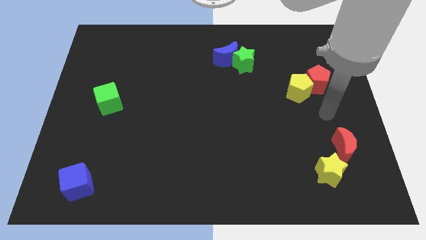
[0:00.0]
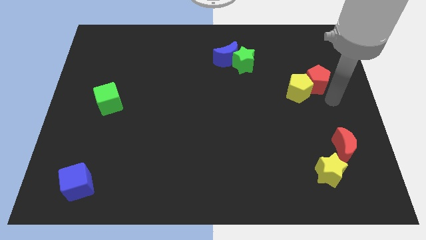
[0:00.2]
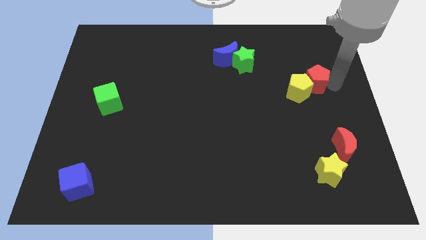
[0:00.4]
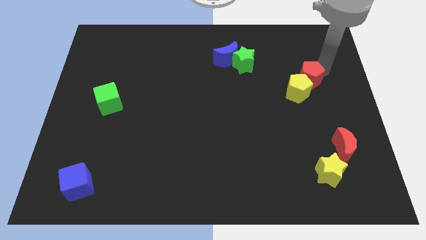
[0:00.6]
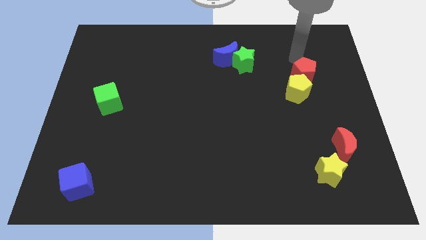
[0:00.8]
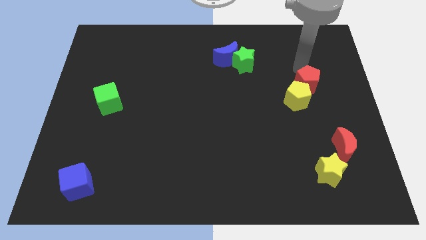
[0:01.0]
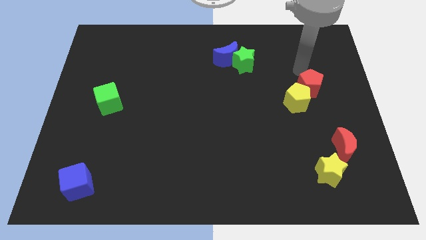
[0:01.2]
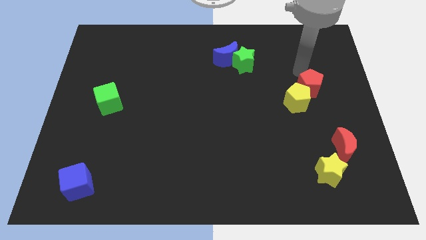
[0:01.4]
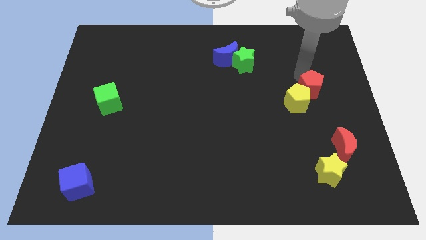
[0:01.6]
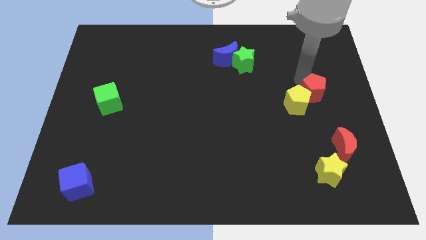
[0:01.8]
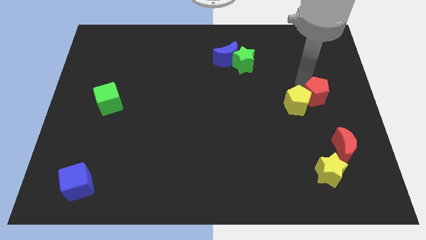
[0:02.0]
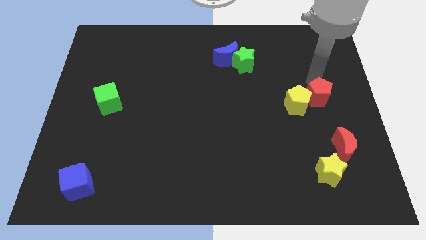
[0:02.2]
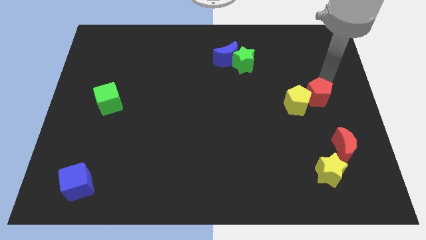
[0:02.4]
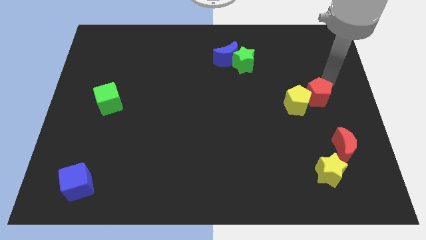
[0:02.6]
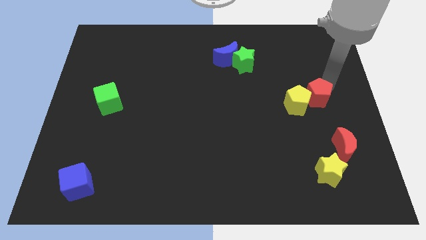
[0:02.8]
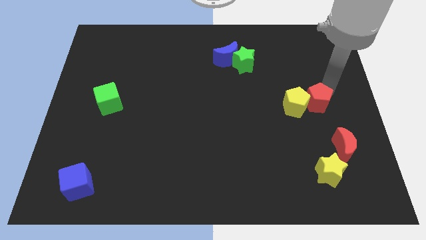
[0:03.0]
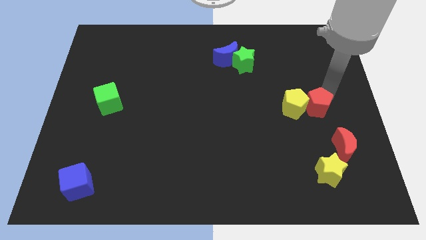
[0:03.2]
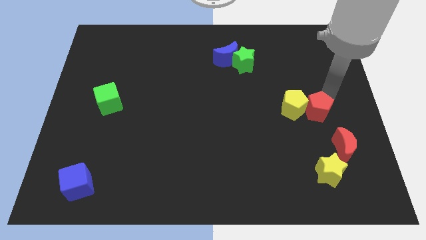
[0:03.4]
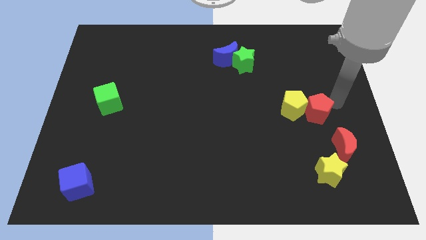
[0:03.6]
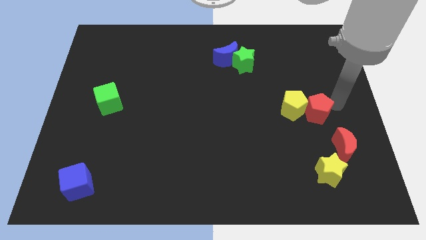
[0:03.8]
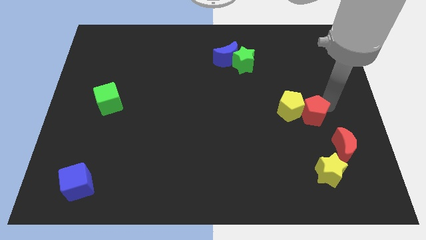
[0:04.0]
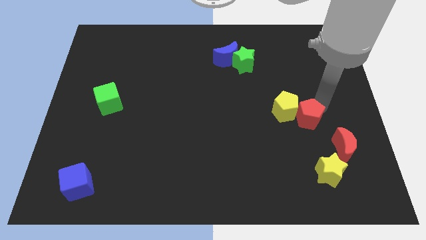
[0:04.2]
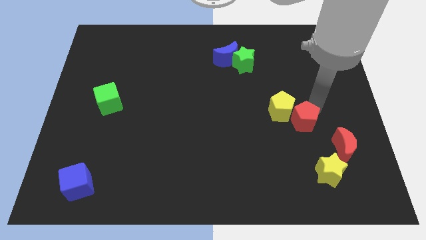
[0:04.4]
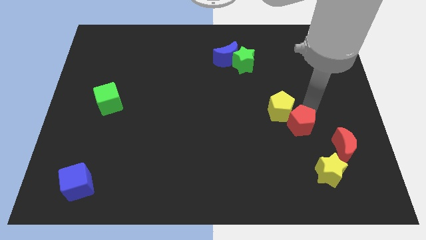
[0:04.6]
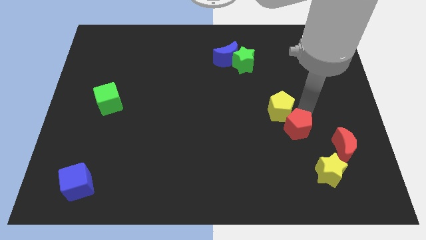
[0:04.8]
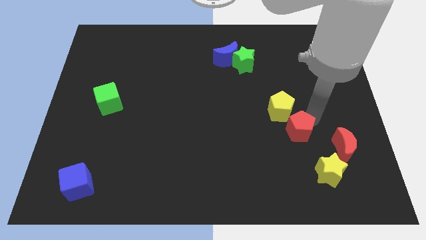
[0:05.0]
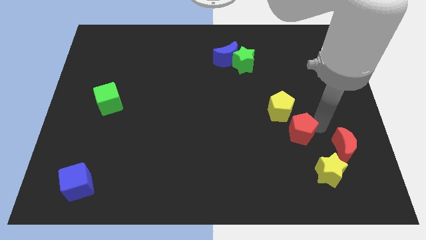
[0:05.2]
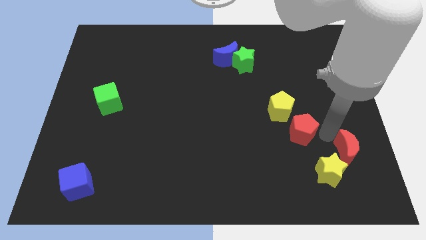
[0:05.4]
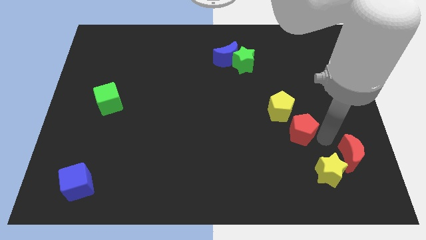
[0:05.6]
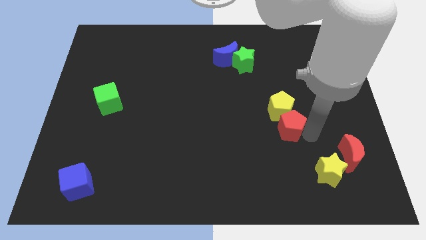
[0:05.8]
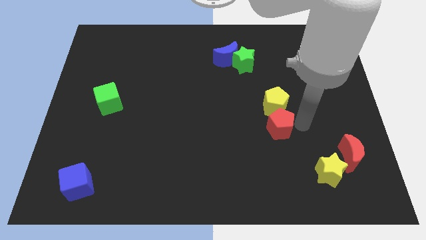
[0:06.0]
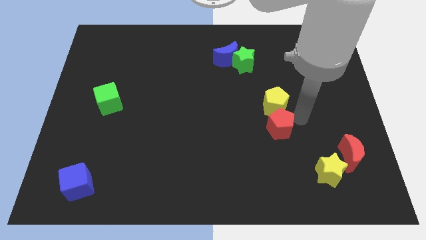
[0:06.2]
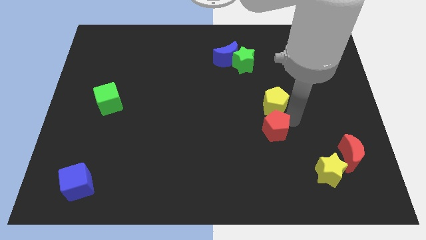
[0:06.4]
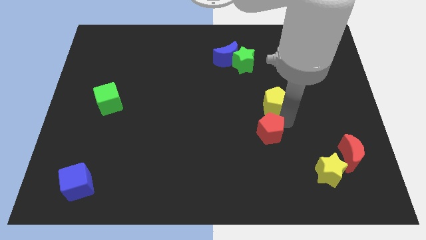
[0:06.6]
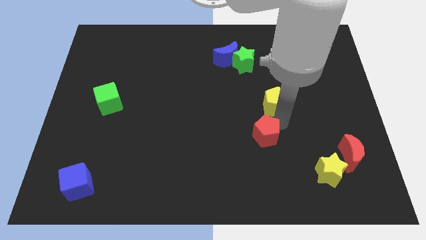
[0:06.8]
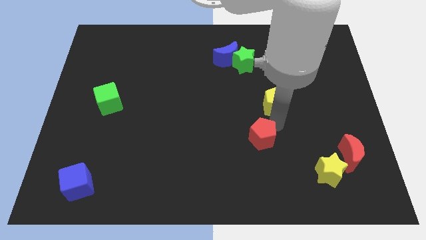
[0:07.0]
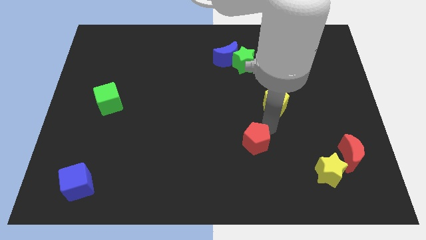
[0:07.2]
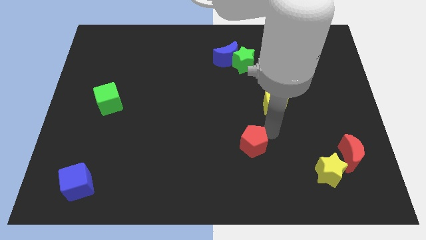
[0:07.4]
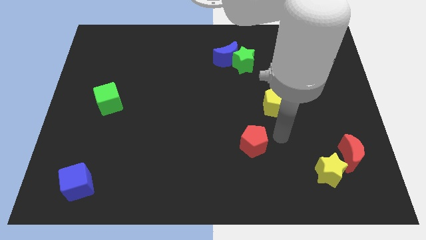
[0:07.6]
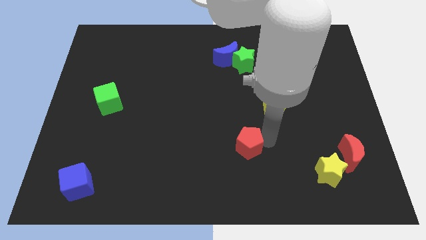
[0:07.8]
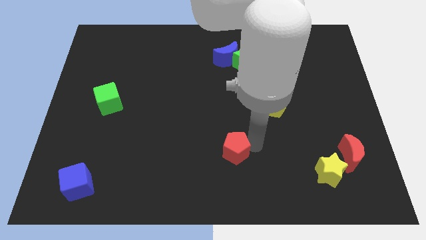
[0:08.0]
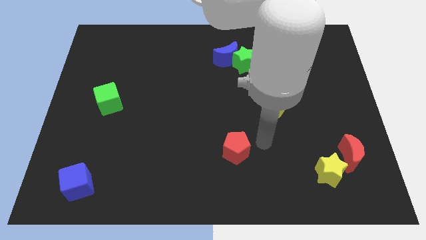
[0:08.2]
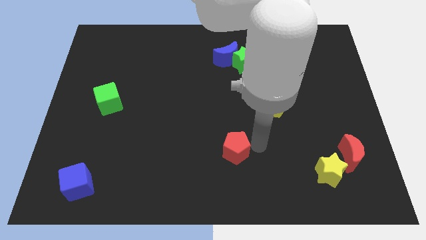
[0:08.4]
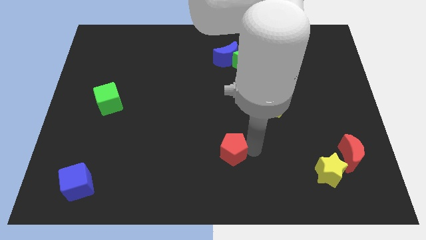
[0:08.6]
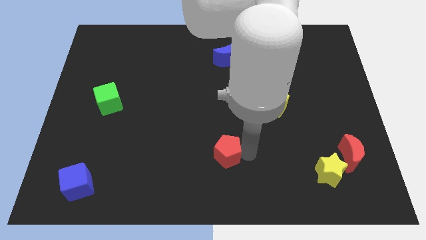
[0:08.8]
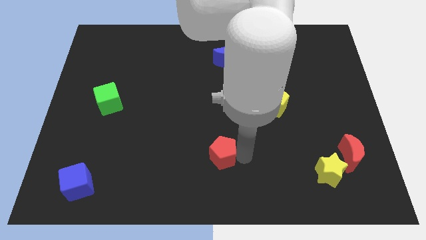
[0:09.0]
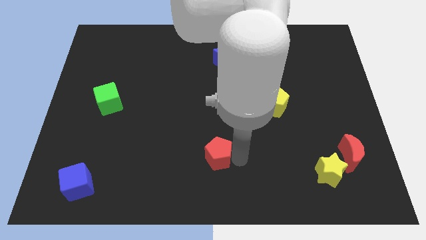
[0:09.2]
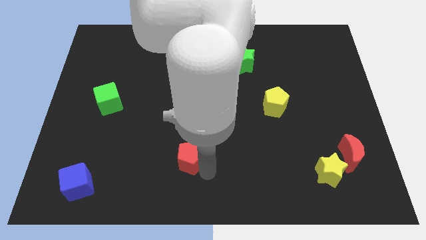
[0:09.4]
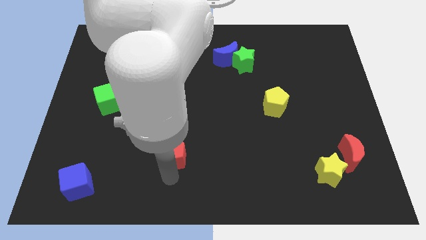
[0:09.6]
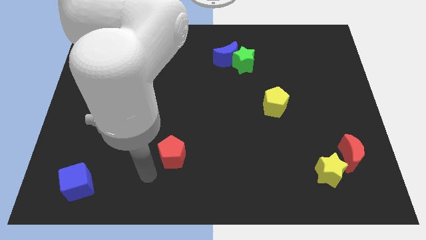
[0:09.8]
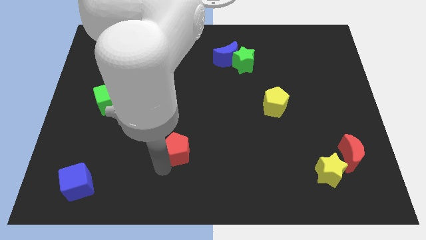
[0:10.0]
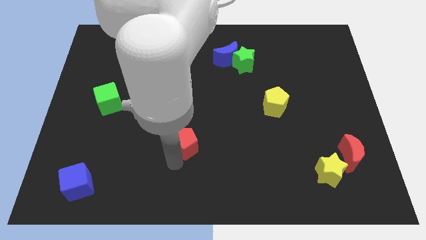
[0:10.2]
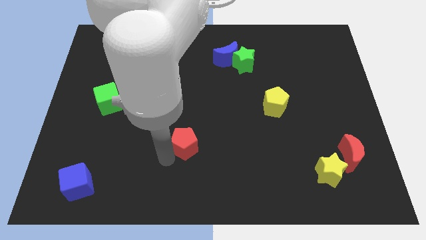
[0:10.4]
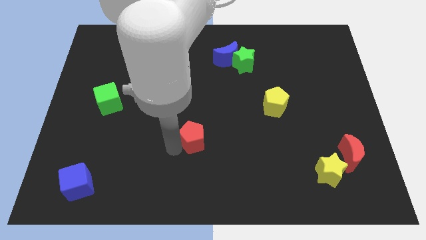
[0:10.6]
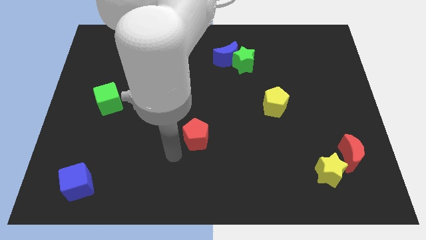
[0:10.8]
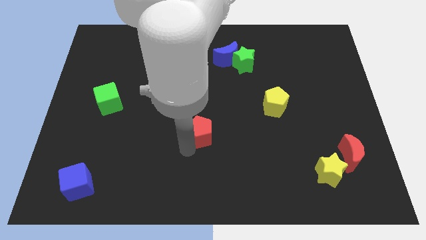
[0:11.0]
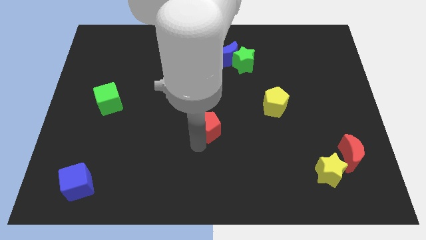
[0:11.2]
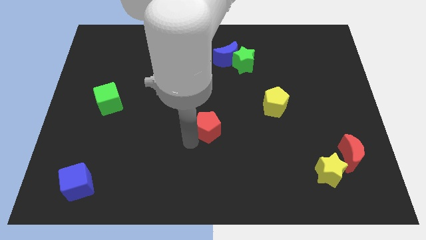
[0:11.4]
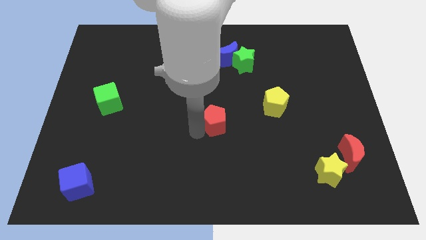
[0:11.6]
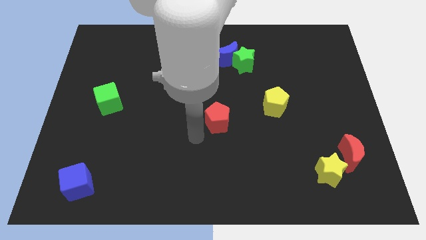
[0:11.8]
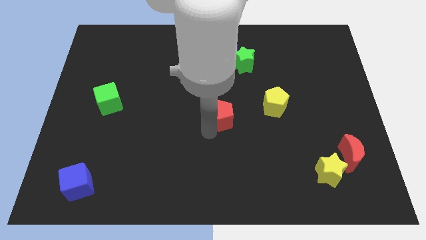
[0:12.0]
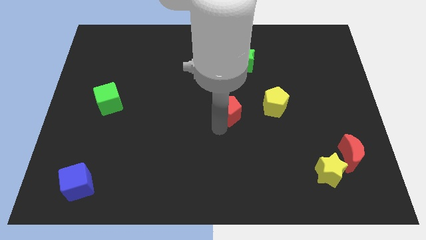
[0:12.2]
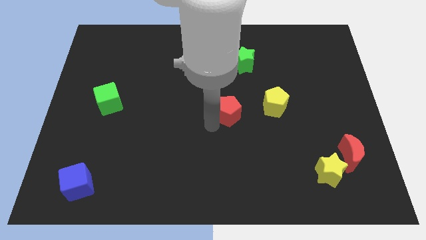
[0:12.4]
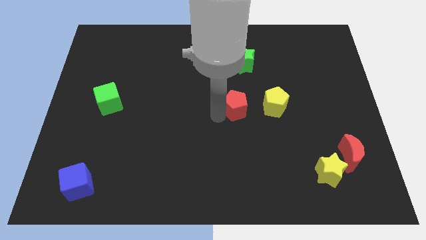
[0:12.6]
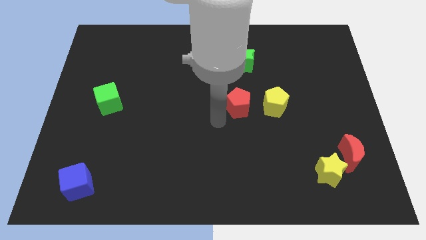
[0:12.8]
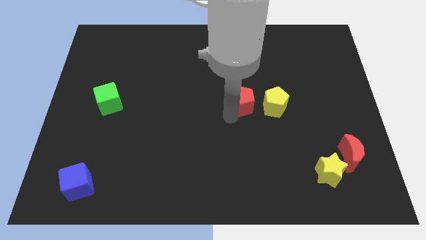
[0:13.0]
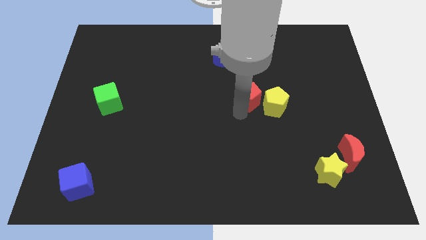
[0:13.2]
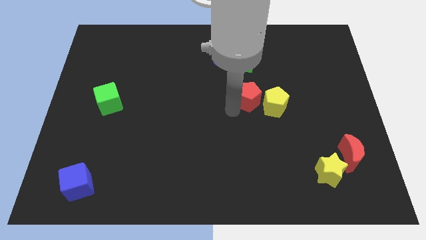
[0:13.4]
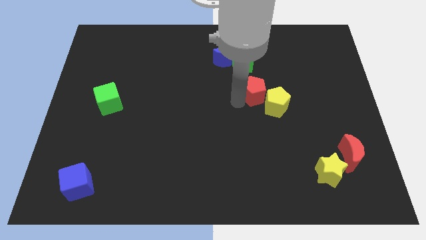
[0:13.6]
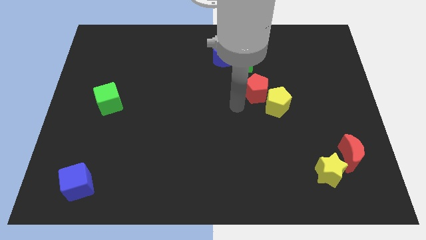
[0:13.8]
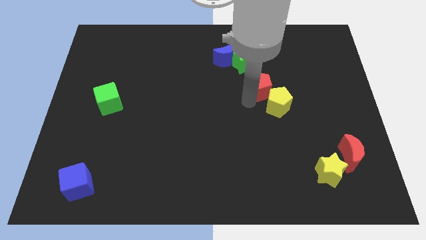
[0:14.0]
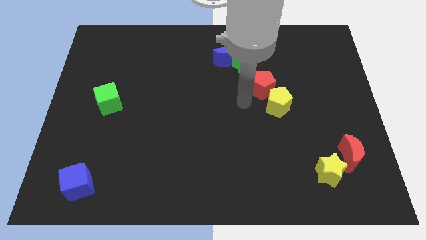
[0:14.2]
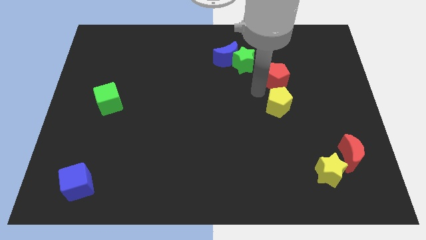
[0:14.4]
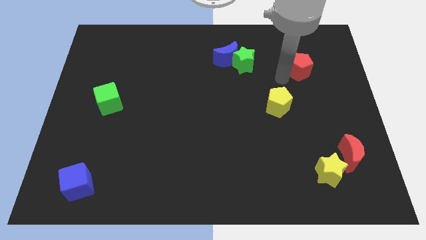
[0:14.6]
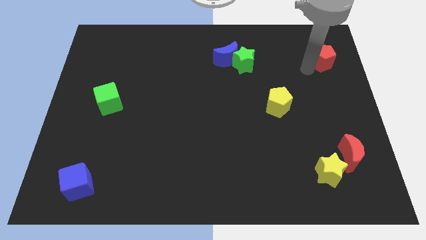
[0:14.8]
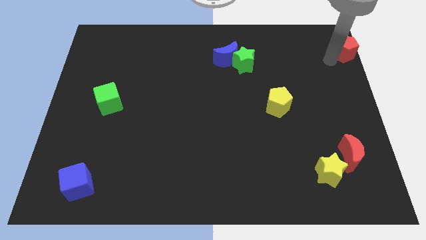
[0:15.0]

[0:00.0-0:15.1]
push the red pentagon to the top right corner
